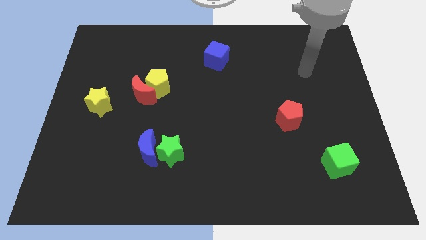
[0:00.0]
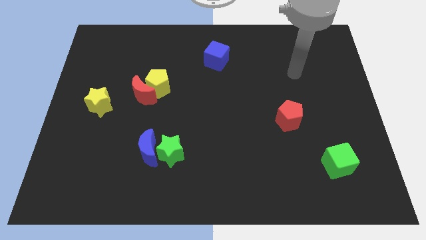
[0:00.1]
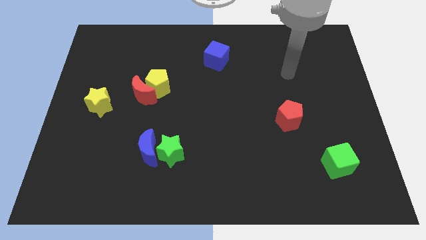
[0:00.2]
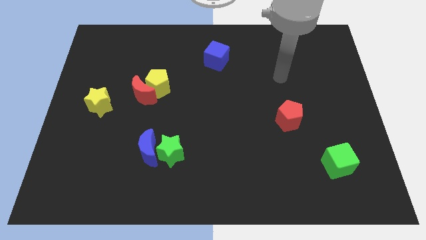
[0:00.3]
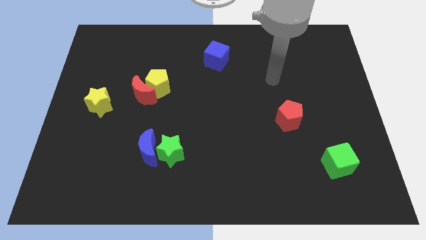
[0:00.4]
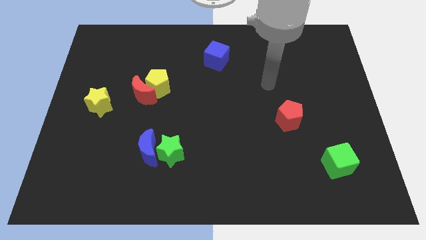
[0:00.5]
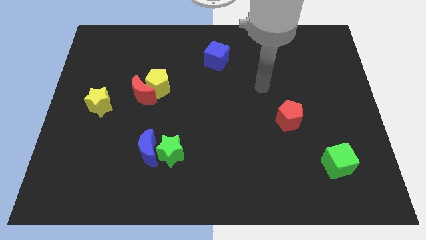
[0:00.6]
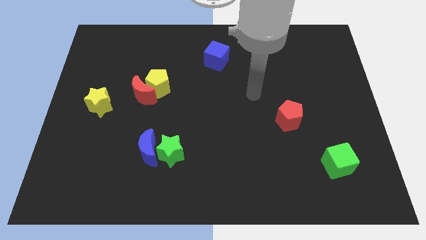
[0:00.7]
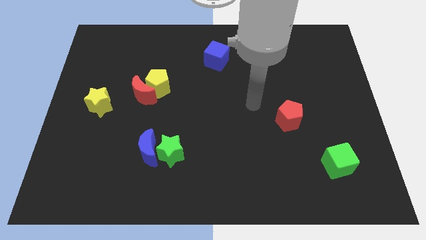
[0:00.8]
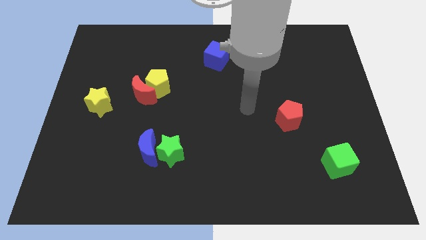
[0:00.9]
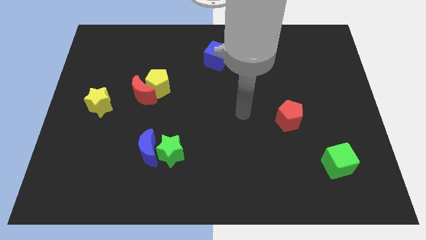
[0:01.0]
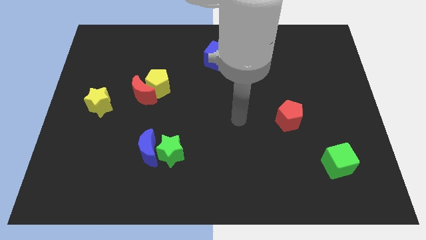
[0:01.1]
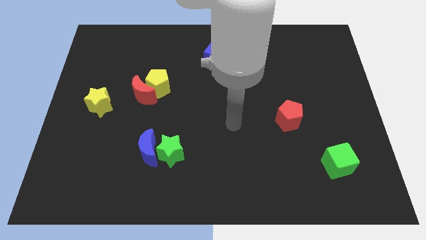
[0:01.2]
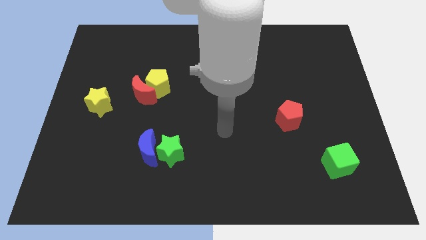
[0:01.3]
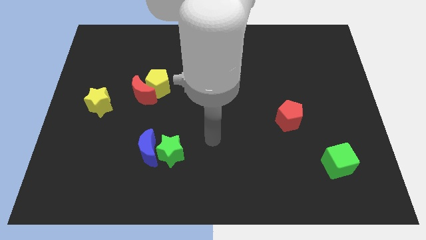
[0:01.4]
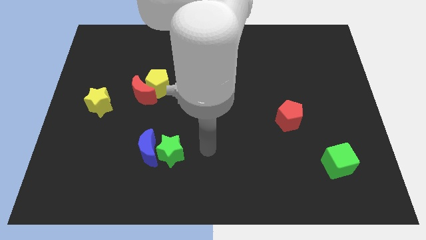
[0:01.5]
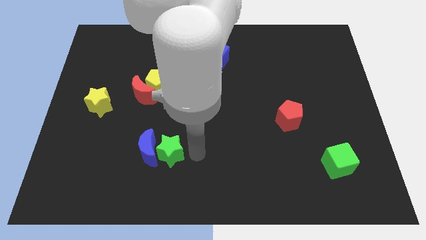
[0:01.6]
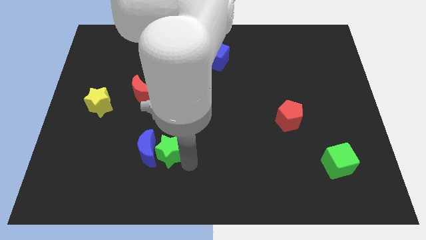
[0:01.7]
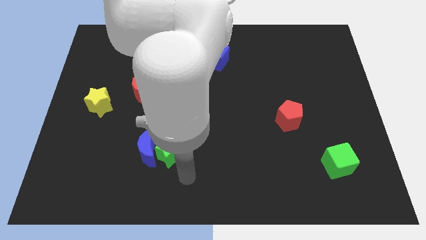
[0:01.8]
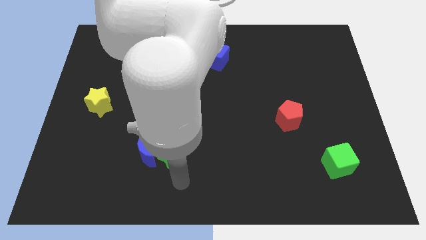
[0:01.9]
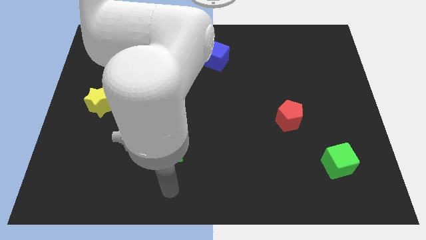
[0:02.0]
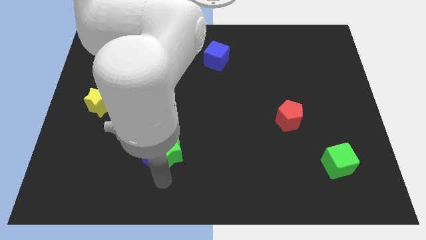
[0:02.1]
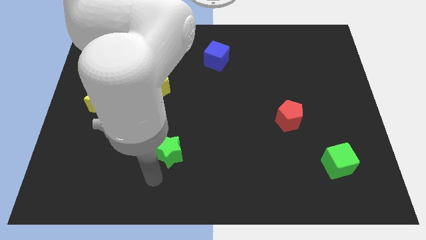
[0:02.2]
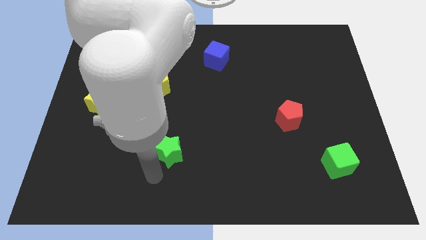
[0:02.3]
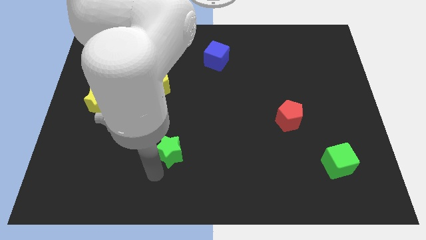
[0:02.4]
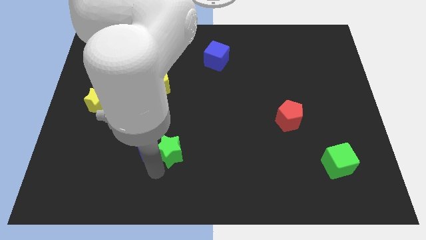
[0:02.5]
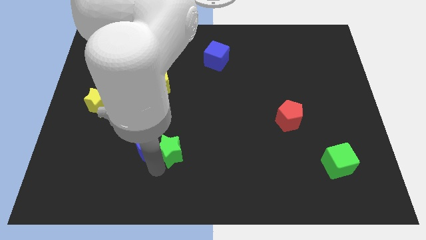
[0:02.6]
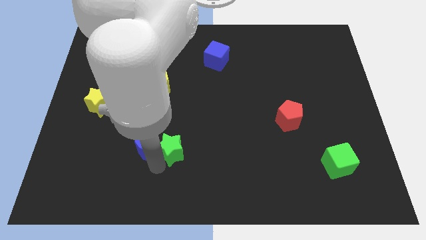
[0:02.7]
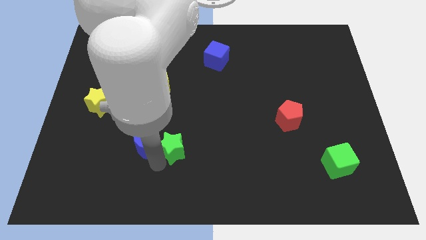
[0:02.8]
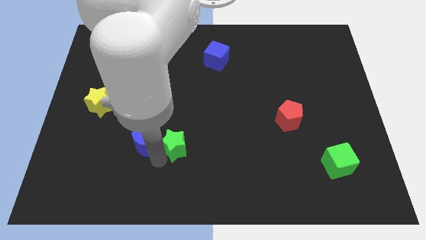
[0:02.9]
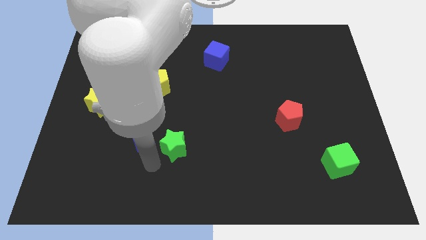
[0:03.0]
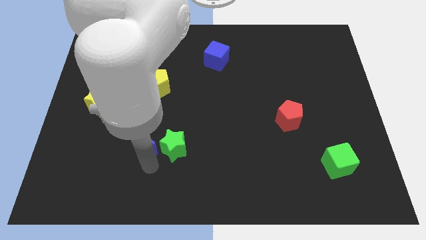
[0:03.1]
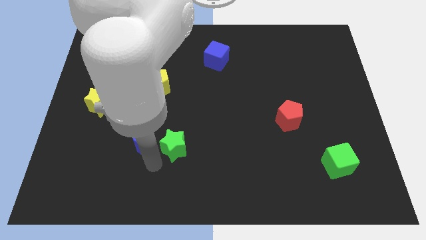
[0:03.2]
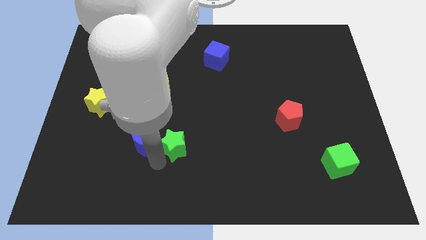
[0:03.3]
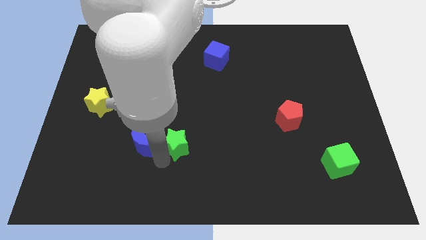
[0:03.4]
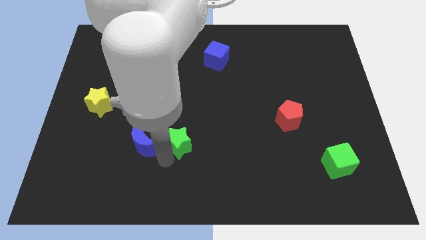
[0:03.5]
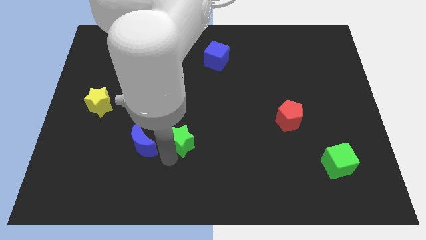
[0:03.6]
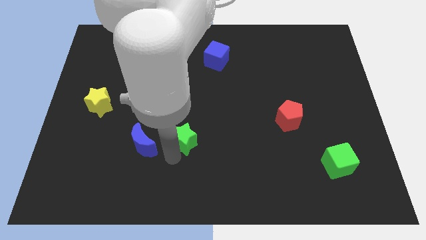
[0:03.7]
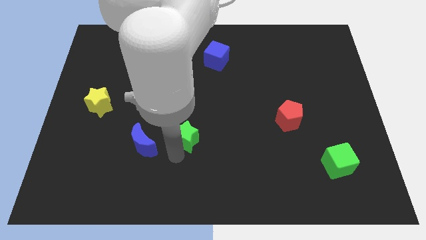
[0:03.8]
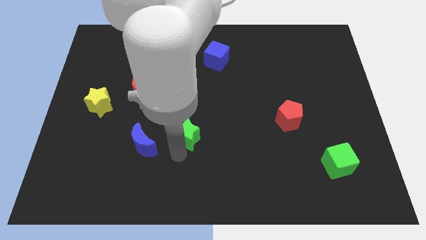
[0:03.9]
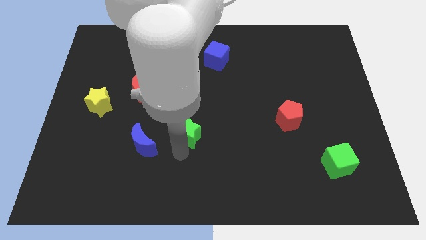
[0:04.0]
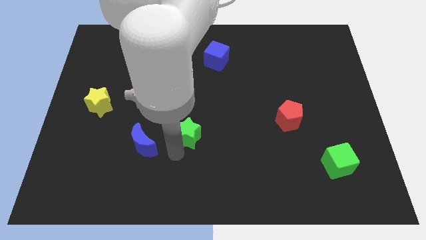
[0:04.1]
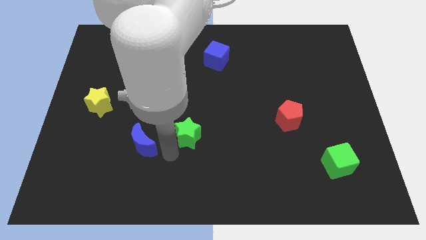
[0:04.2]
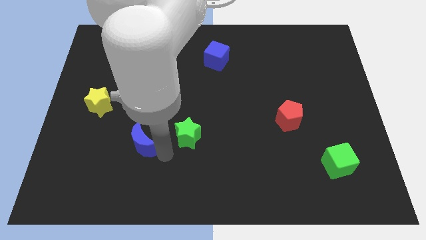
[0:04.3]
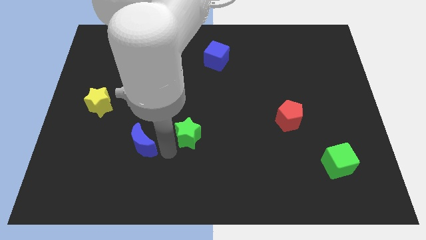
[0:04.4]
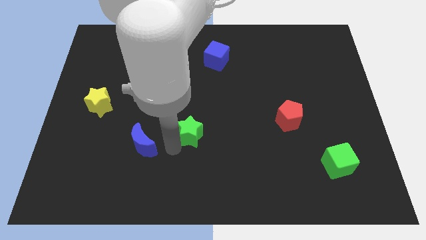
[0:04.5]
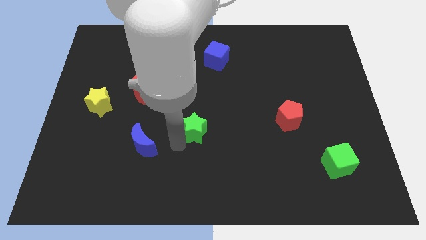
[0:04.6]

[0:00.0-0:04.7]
slide the green star slightly up and to the right diagonally

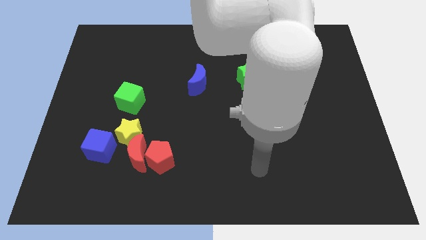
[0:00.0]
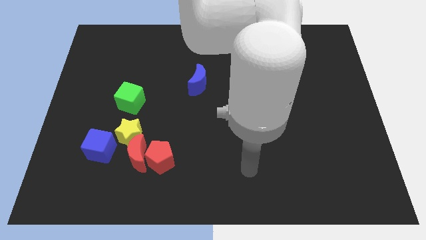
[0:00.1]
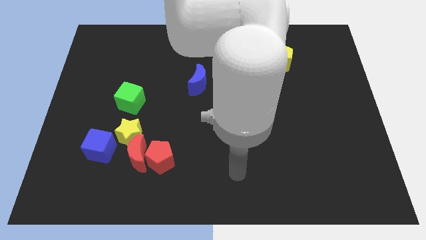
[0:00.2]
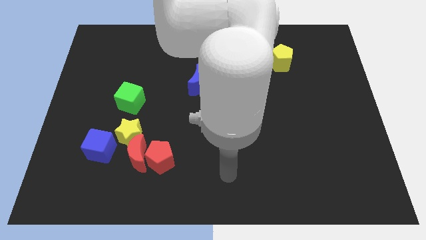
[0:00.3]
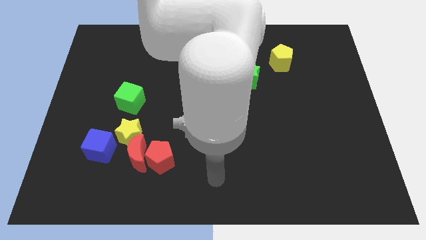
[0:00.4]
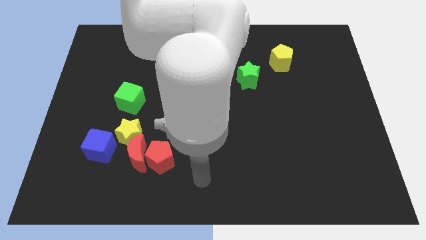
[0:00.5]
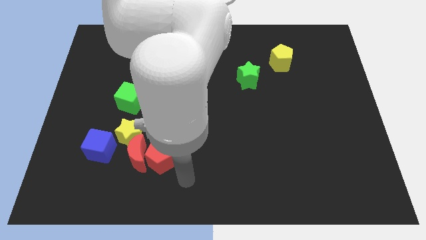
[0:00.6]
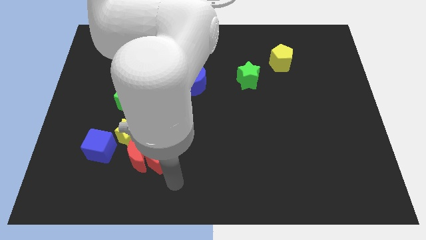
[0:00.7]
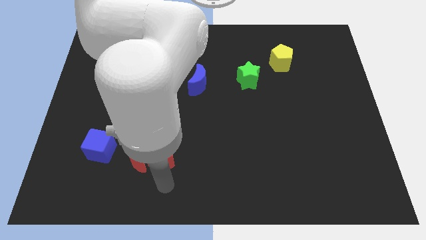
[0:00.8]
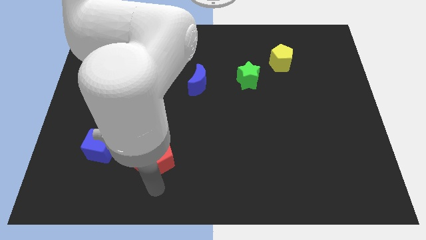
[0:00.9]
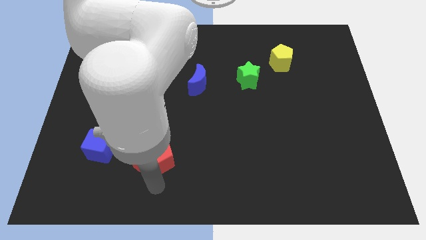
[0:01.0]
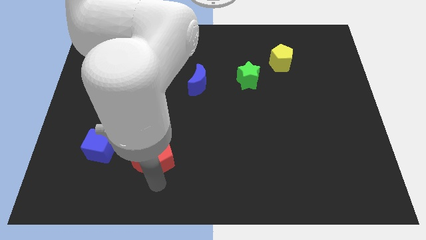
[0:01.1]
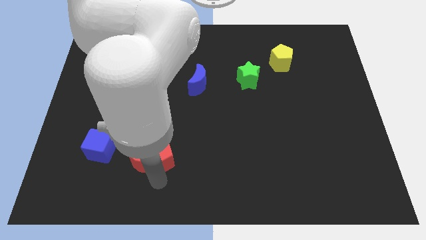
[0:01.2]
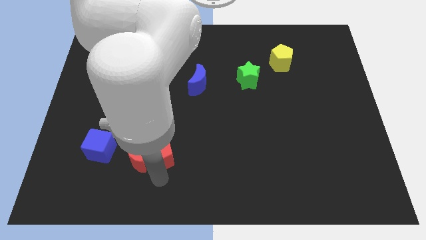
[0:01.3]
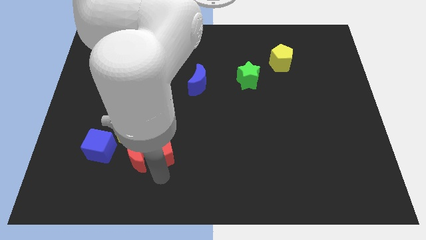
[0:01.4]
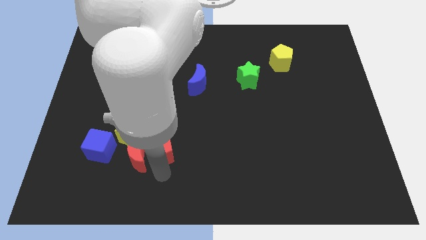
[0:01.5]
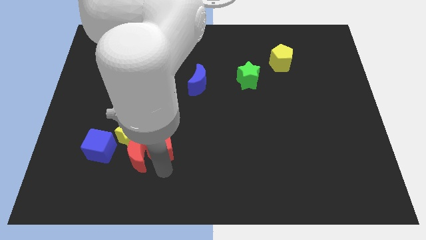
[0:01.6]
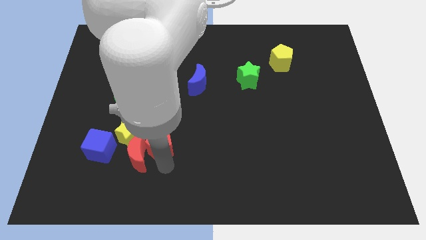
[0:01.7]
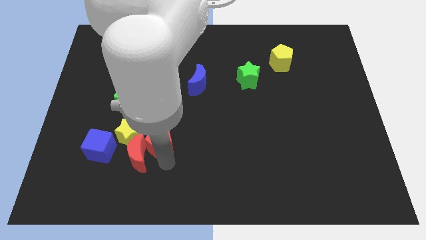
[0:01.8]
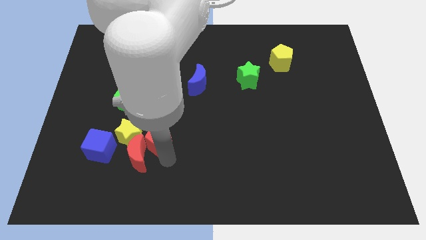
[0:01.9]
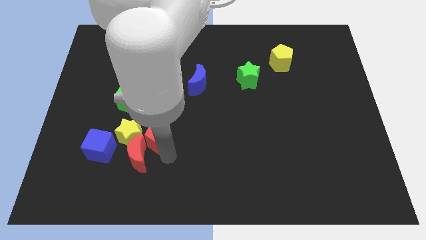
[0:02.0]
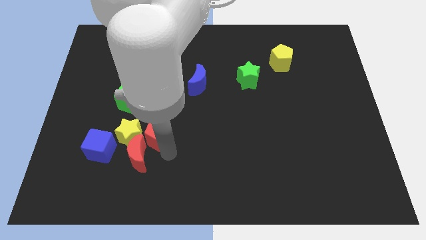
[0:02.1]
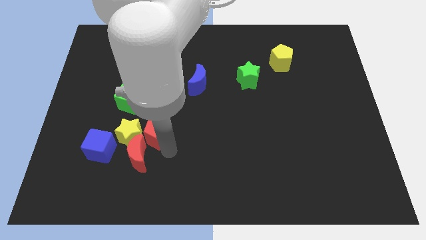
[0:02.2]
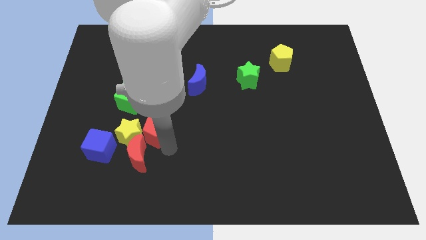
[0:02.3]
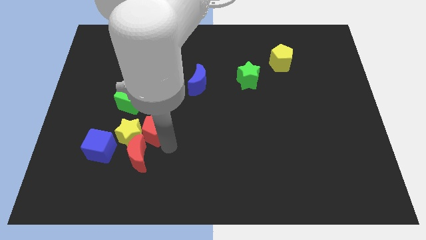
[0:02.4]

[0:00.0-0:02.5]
push the red pentagon upwards a little bit

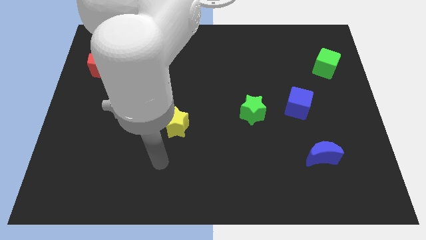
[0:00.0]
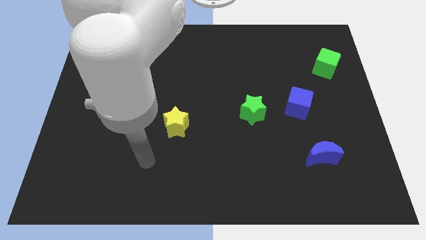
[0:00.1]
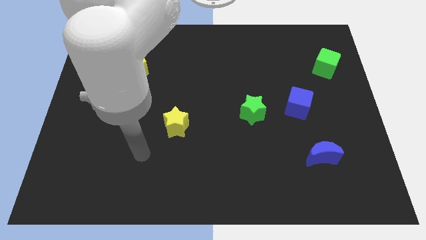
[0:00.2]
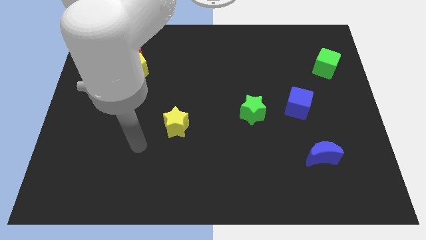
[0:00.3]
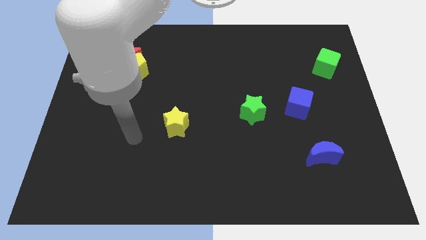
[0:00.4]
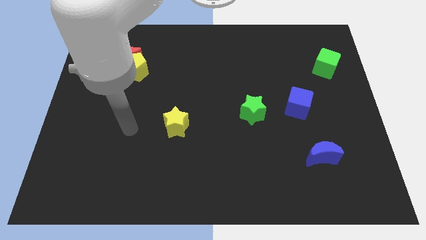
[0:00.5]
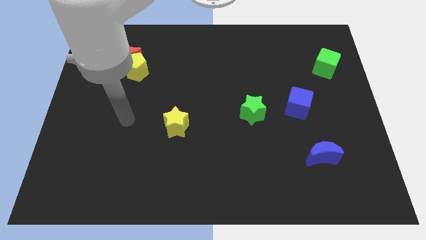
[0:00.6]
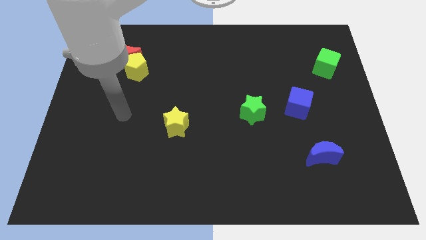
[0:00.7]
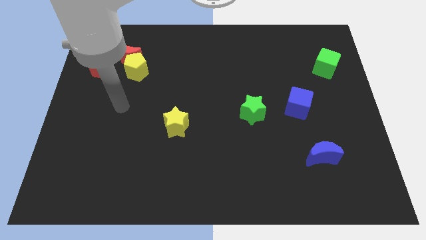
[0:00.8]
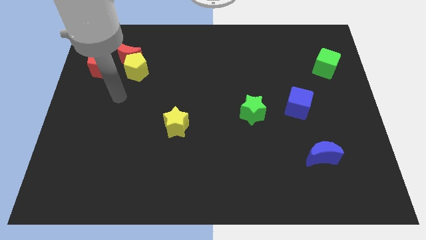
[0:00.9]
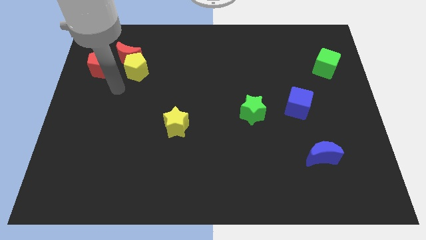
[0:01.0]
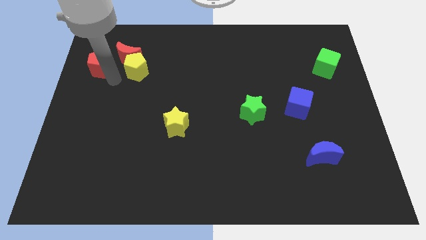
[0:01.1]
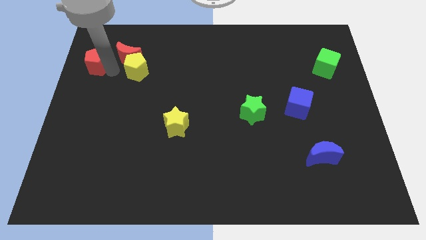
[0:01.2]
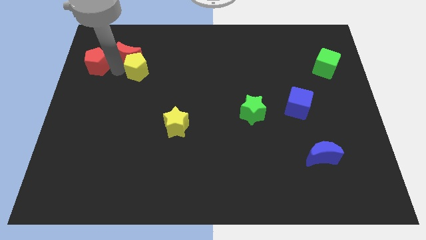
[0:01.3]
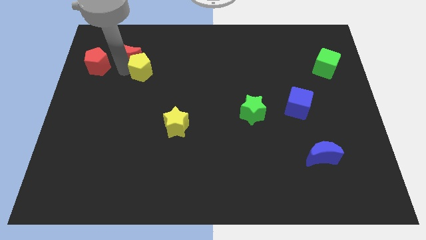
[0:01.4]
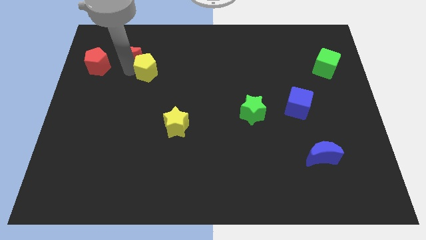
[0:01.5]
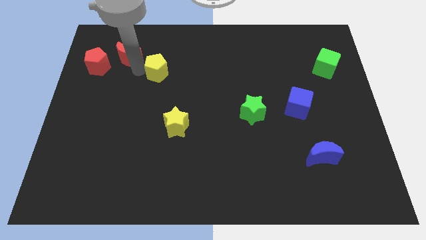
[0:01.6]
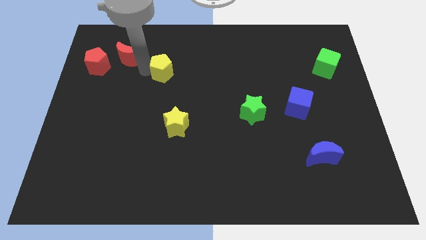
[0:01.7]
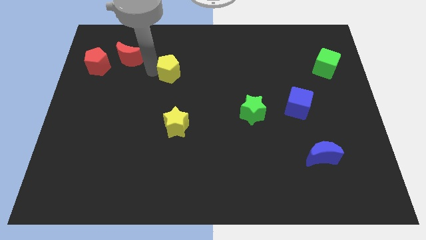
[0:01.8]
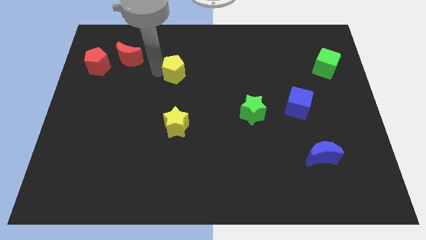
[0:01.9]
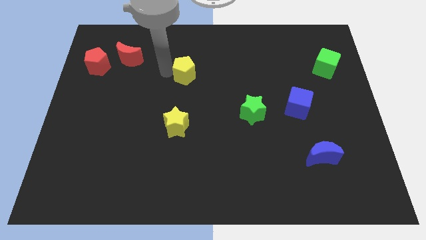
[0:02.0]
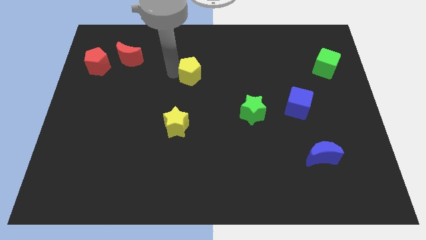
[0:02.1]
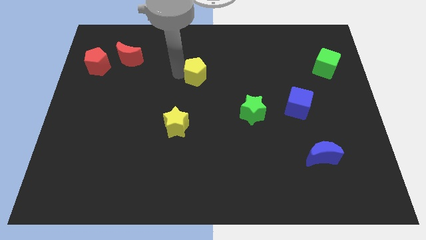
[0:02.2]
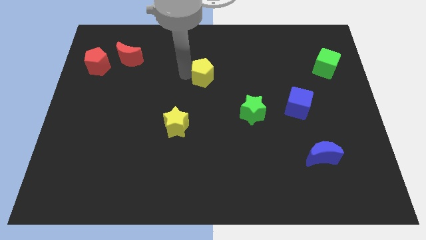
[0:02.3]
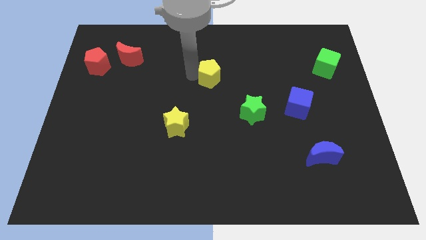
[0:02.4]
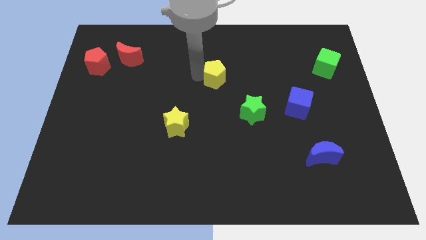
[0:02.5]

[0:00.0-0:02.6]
move the yellow pentagon right
